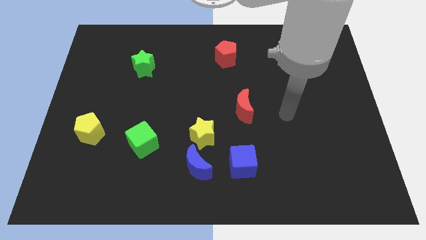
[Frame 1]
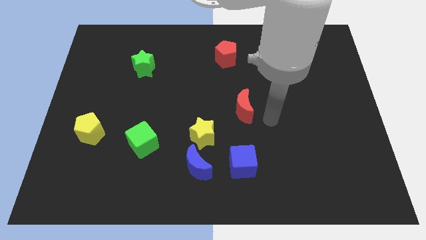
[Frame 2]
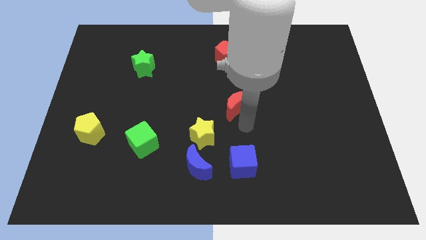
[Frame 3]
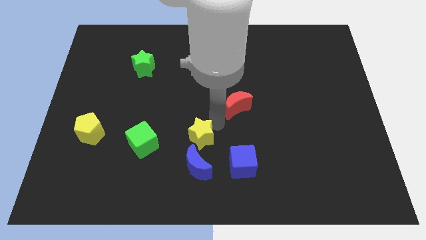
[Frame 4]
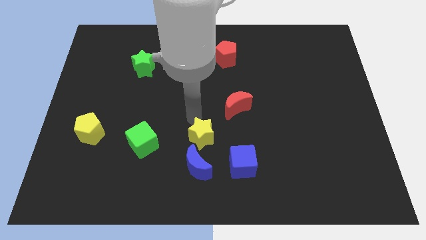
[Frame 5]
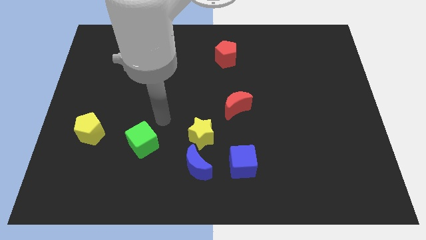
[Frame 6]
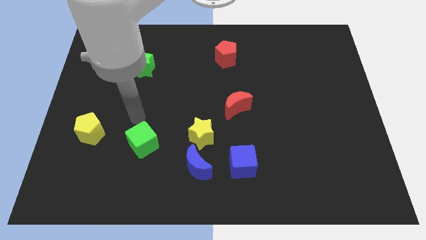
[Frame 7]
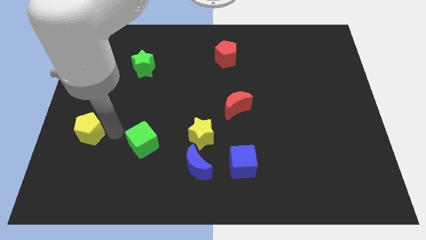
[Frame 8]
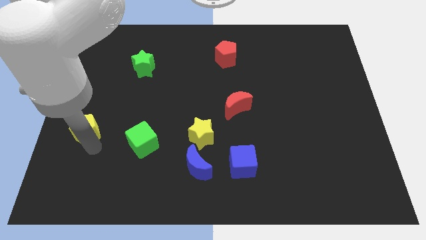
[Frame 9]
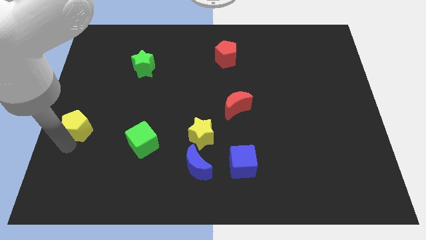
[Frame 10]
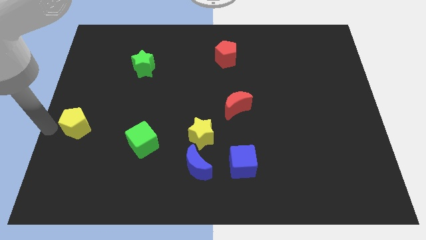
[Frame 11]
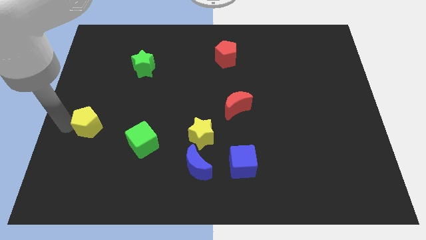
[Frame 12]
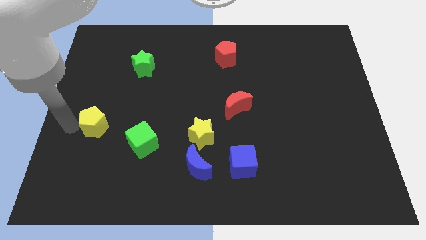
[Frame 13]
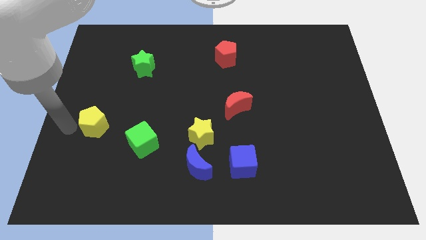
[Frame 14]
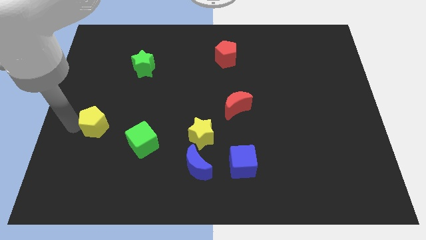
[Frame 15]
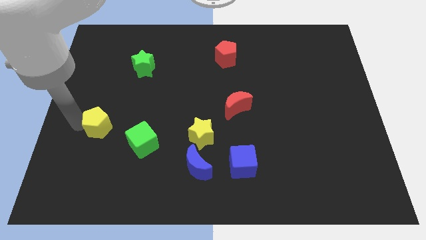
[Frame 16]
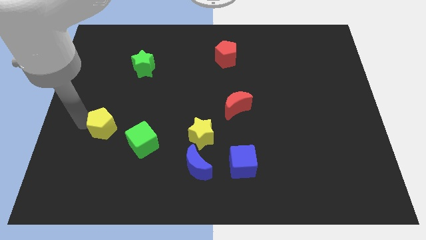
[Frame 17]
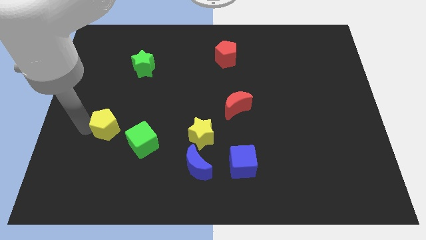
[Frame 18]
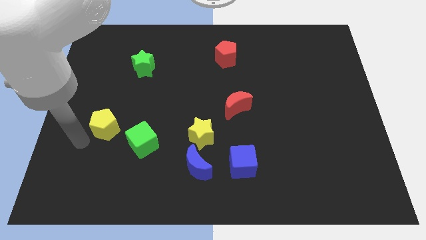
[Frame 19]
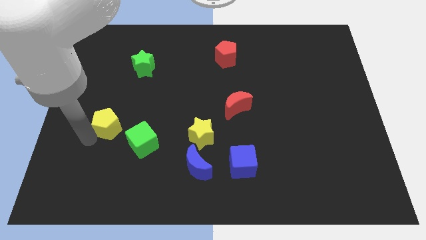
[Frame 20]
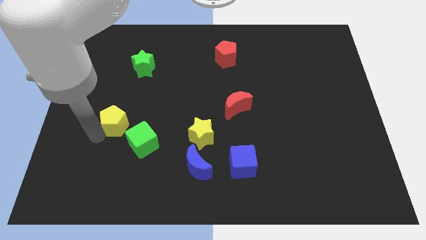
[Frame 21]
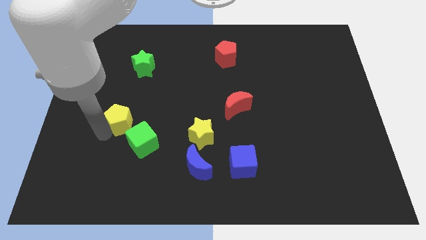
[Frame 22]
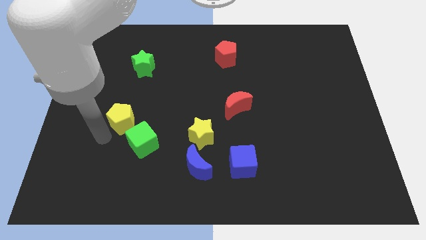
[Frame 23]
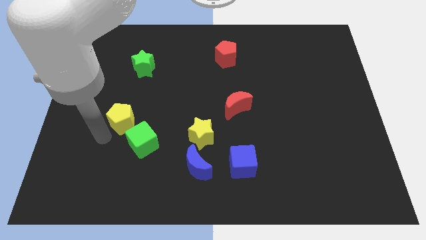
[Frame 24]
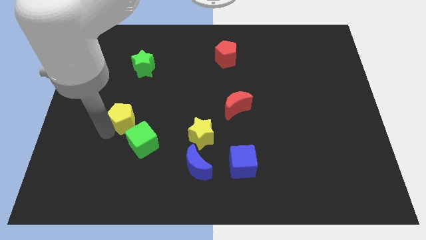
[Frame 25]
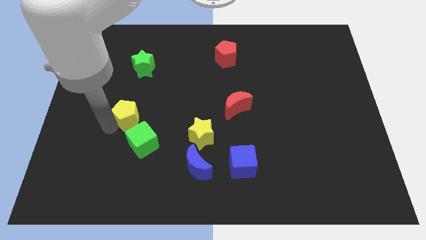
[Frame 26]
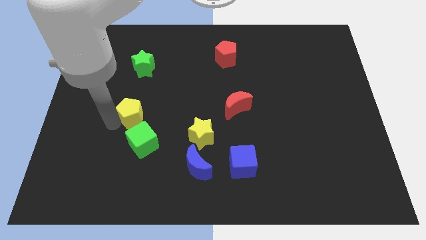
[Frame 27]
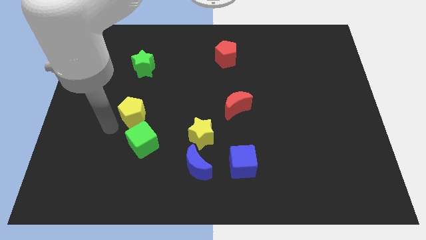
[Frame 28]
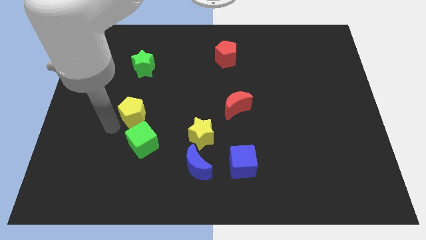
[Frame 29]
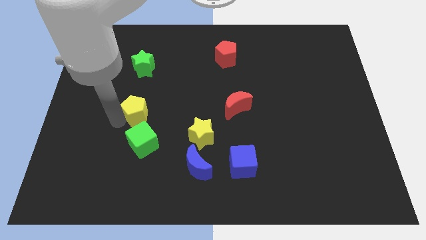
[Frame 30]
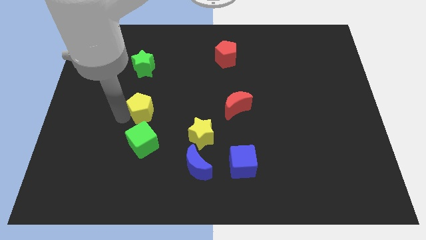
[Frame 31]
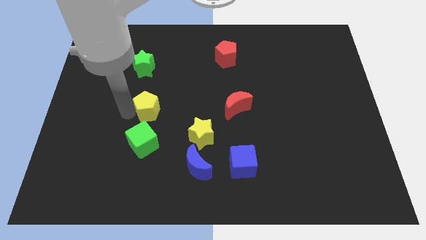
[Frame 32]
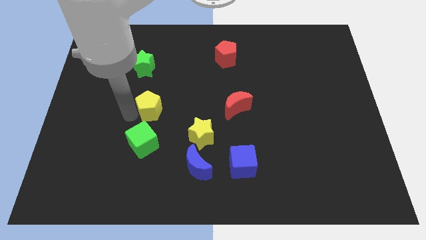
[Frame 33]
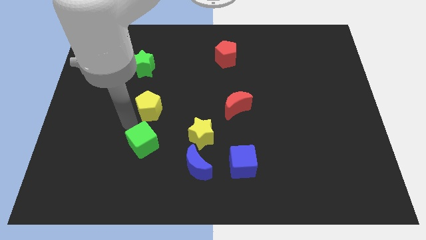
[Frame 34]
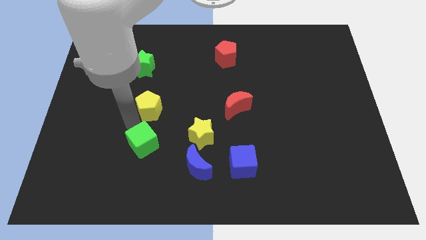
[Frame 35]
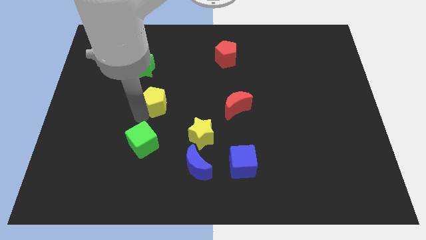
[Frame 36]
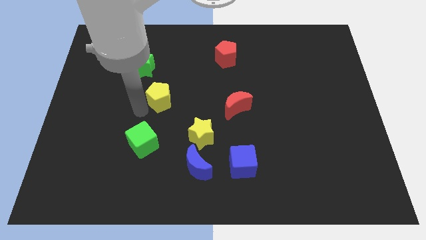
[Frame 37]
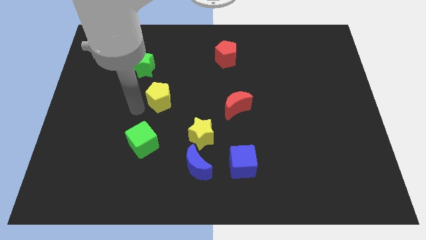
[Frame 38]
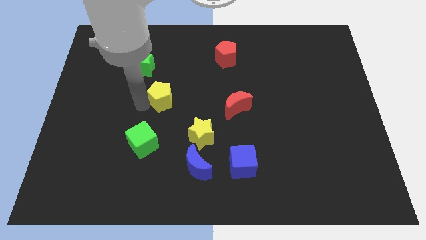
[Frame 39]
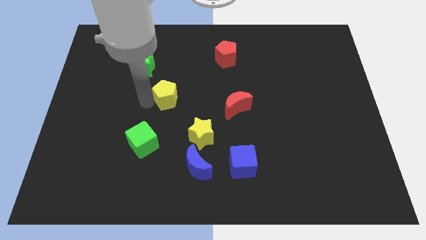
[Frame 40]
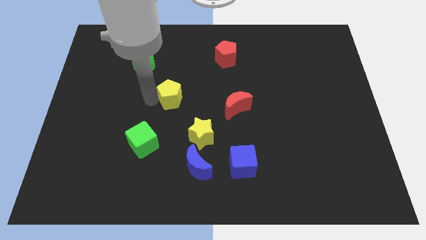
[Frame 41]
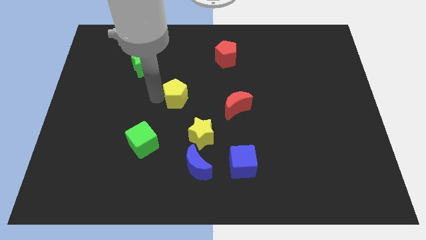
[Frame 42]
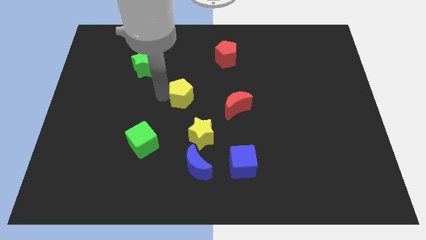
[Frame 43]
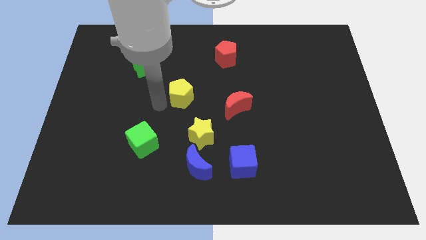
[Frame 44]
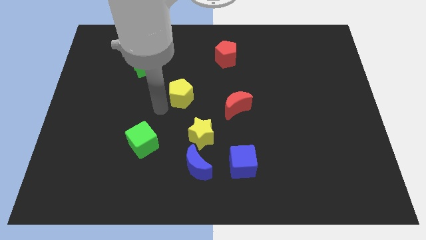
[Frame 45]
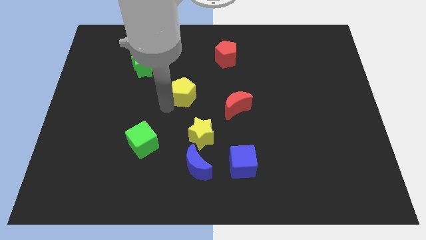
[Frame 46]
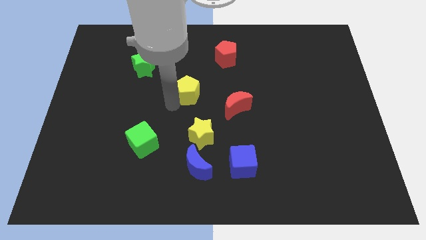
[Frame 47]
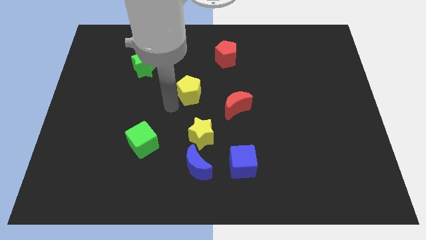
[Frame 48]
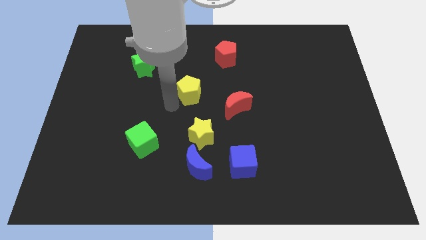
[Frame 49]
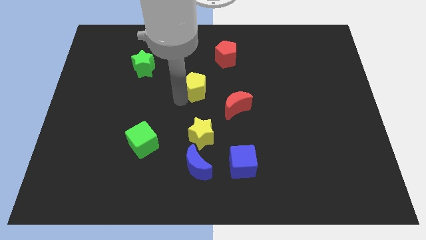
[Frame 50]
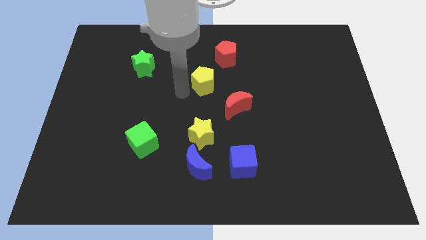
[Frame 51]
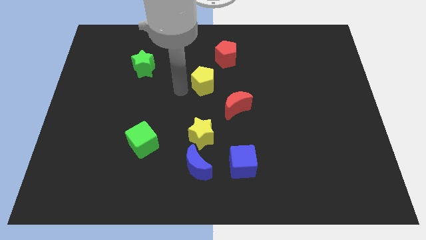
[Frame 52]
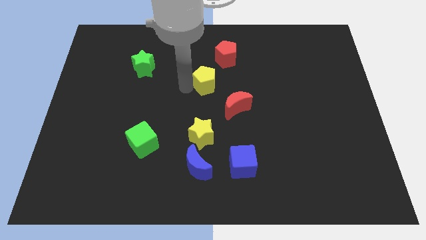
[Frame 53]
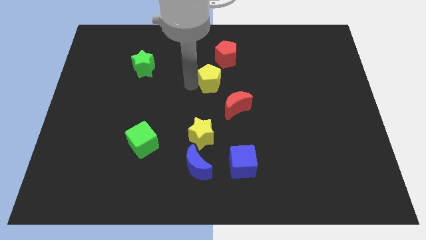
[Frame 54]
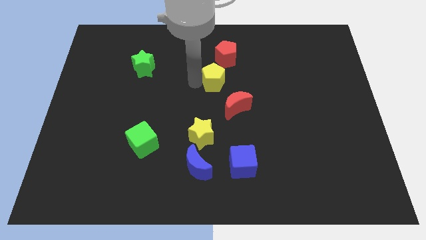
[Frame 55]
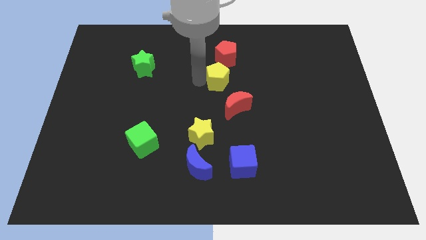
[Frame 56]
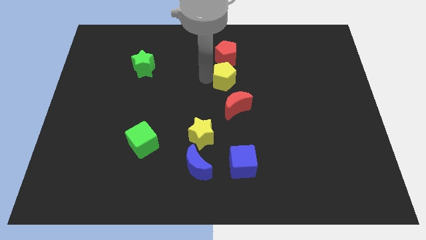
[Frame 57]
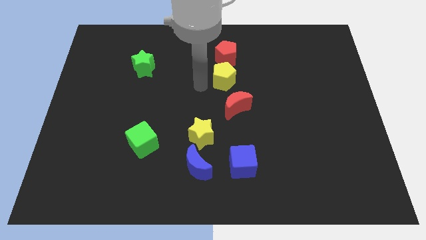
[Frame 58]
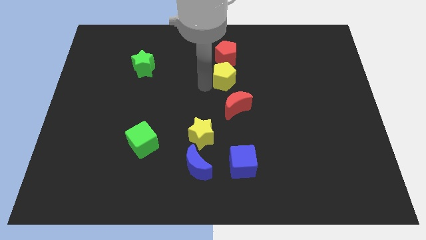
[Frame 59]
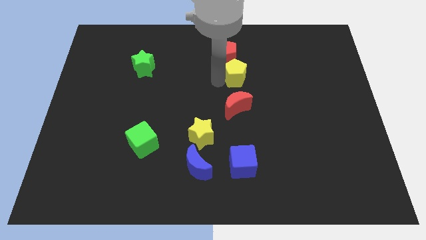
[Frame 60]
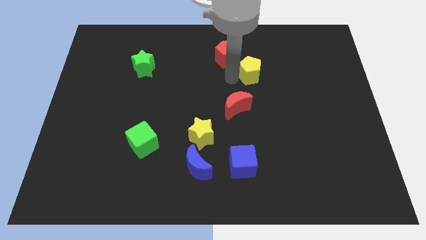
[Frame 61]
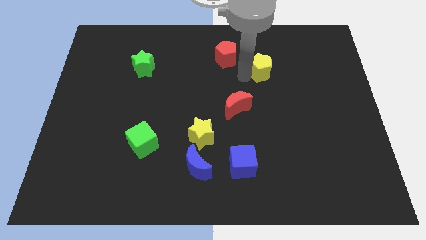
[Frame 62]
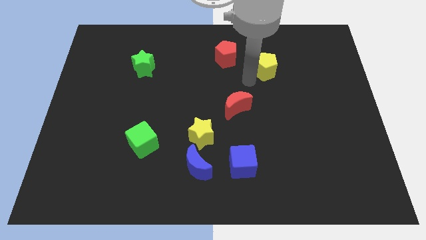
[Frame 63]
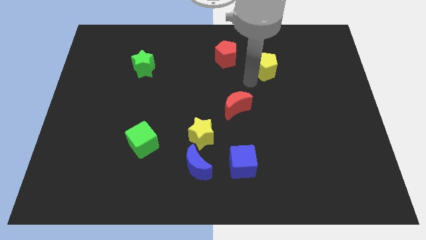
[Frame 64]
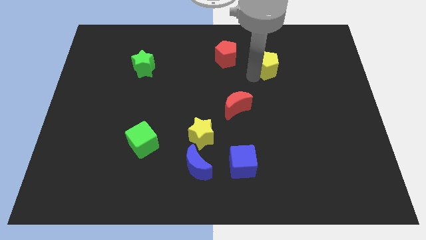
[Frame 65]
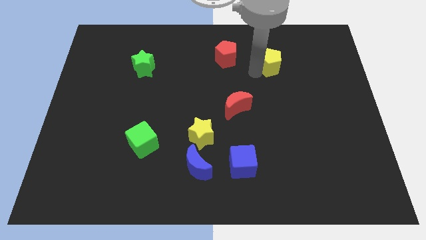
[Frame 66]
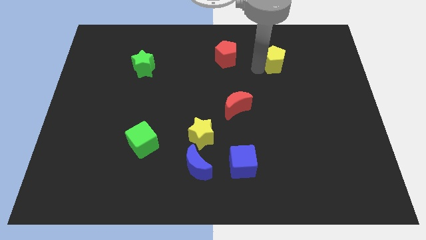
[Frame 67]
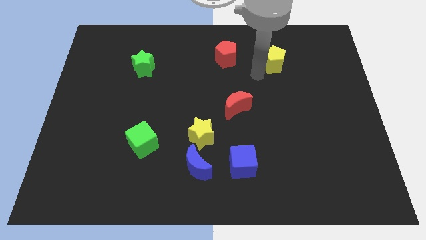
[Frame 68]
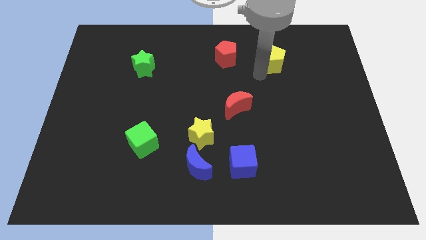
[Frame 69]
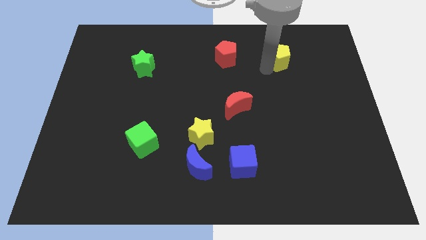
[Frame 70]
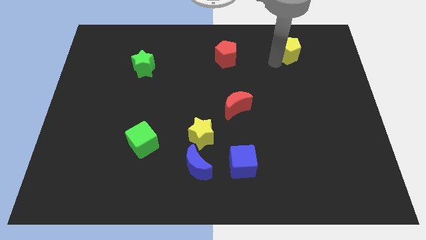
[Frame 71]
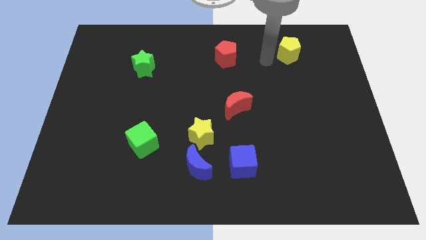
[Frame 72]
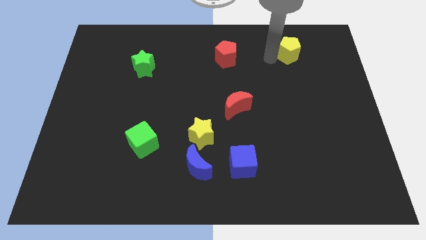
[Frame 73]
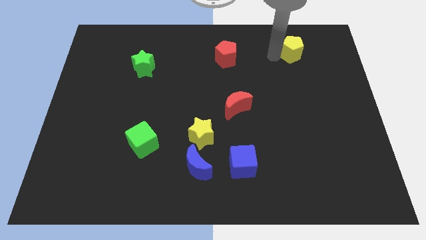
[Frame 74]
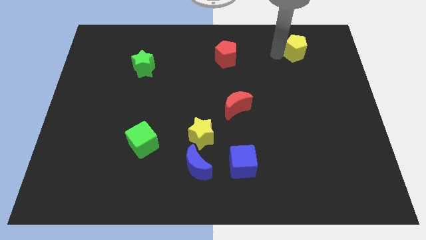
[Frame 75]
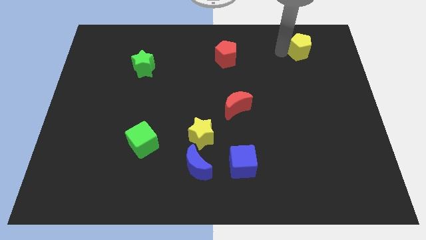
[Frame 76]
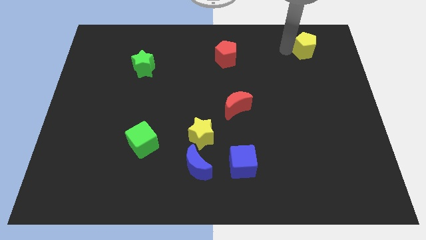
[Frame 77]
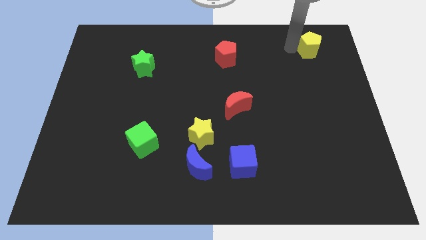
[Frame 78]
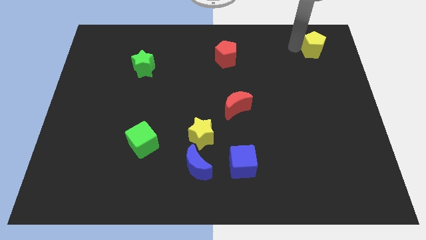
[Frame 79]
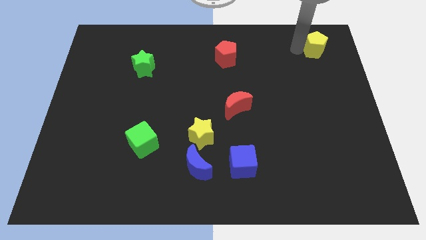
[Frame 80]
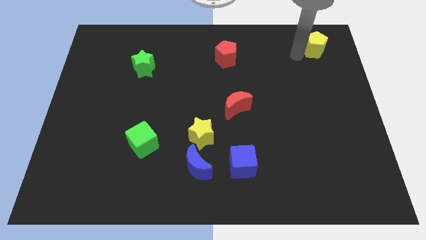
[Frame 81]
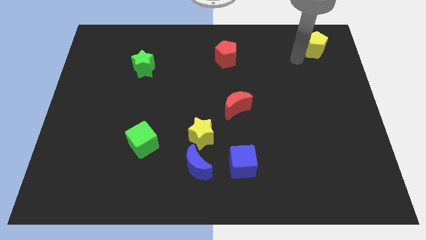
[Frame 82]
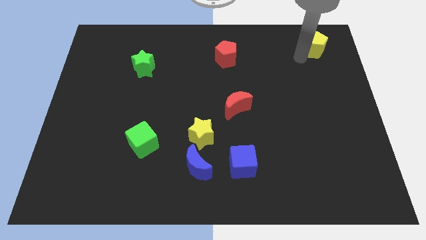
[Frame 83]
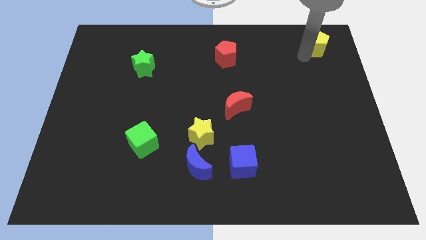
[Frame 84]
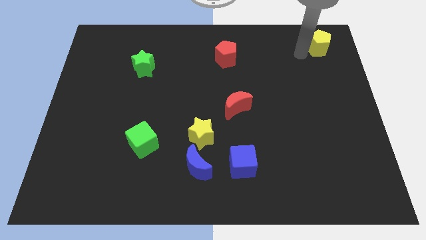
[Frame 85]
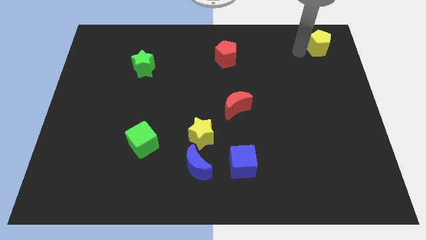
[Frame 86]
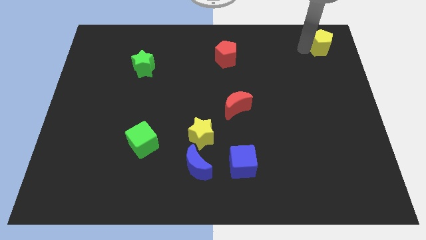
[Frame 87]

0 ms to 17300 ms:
put the yellow pentagon to the top right of the board
